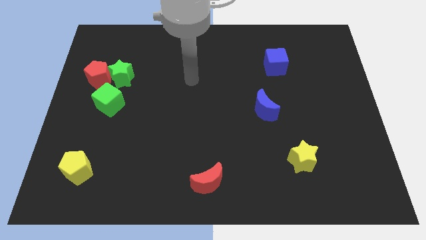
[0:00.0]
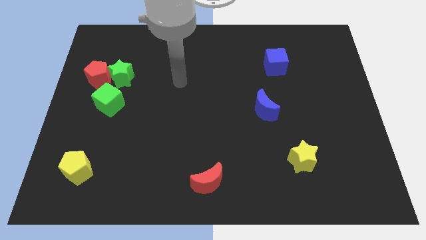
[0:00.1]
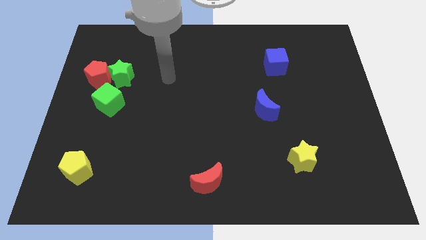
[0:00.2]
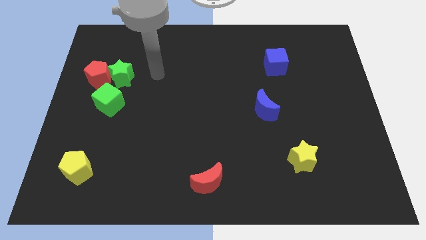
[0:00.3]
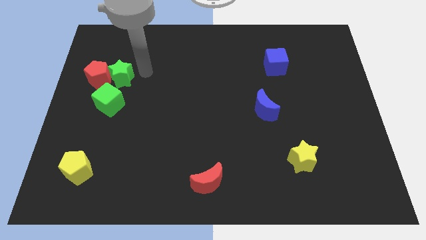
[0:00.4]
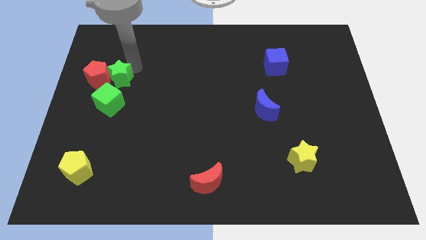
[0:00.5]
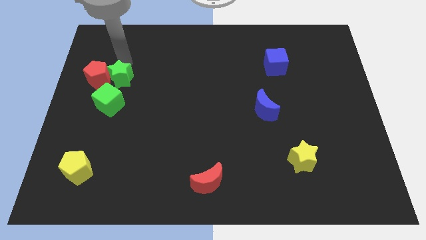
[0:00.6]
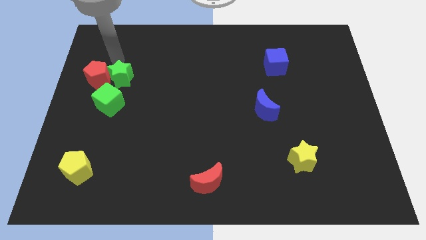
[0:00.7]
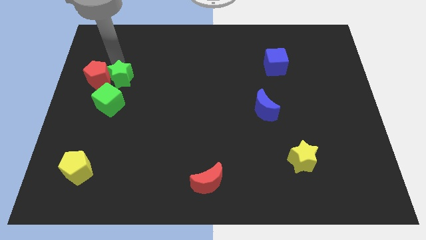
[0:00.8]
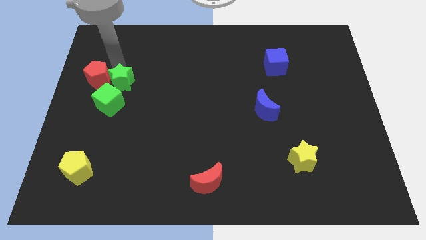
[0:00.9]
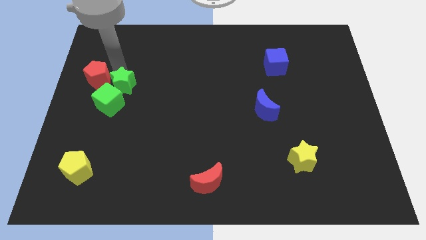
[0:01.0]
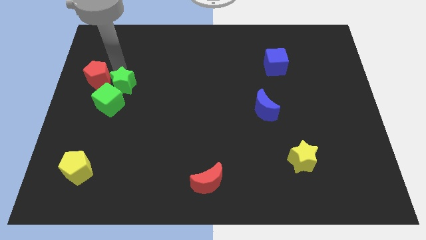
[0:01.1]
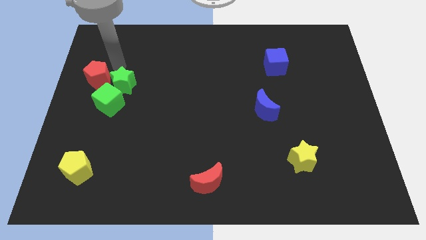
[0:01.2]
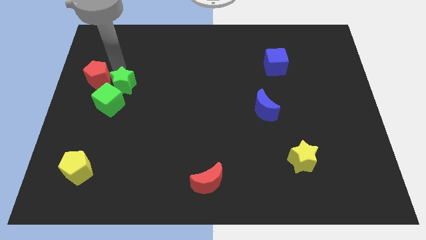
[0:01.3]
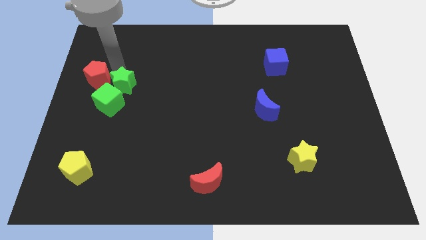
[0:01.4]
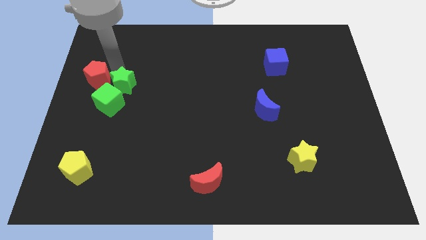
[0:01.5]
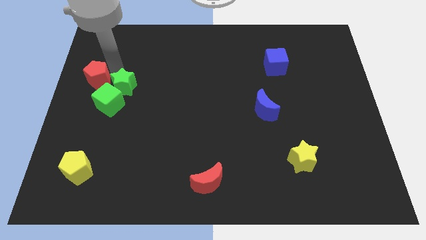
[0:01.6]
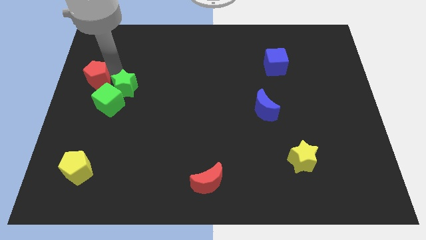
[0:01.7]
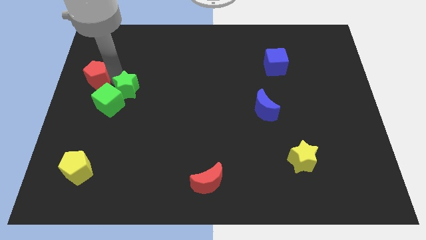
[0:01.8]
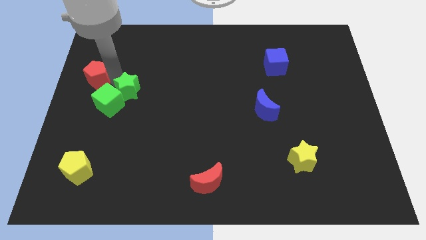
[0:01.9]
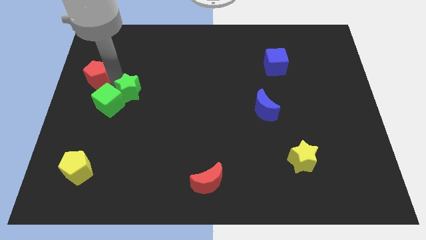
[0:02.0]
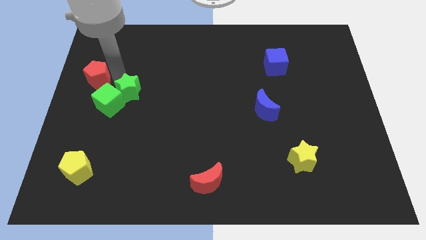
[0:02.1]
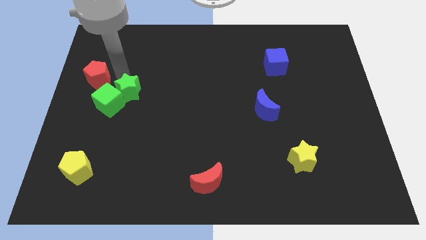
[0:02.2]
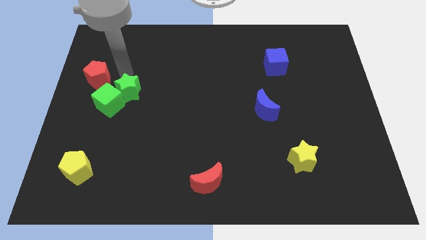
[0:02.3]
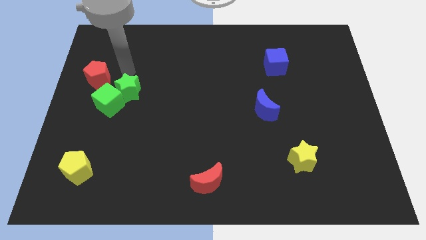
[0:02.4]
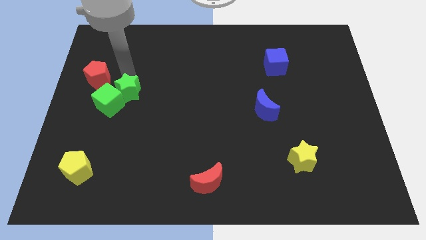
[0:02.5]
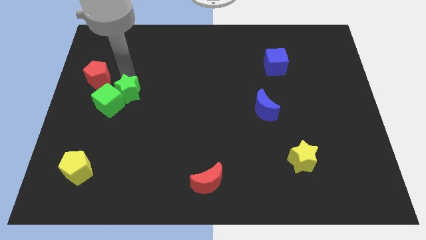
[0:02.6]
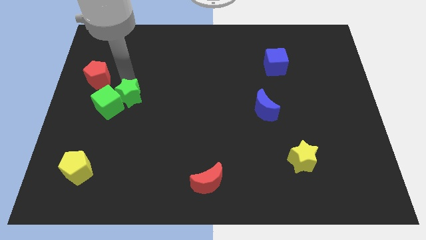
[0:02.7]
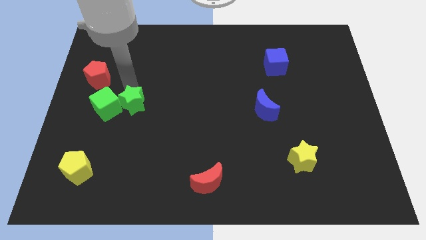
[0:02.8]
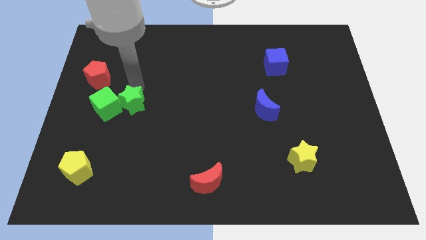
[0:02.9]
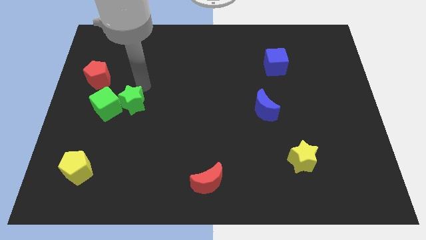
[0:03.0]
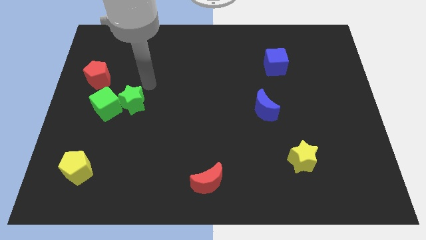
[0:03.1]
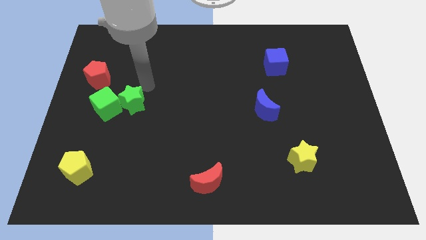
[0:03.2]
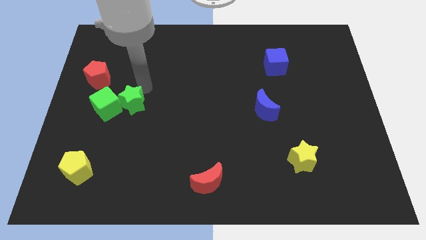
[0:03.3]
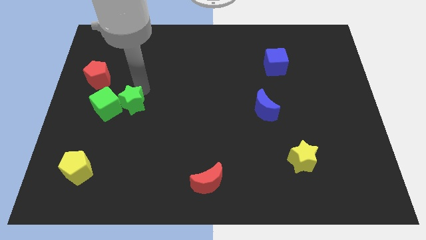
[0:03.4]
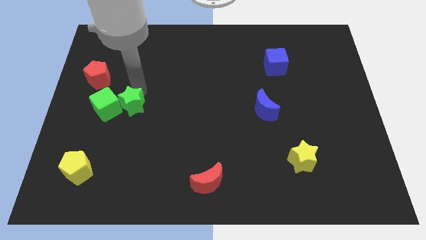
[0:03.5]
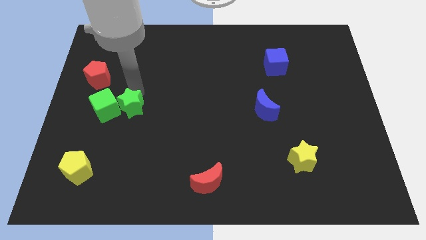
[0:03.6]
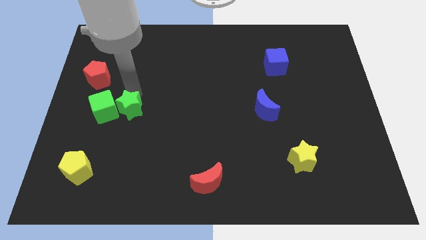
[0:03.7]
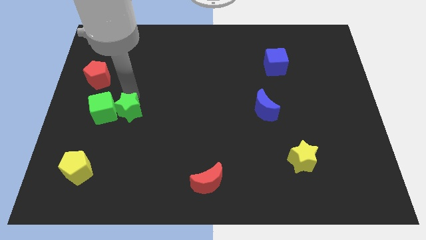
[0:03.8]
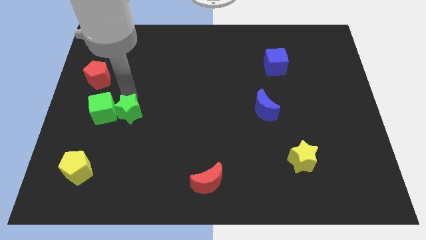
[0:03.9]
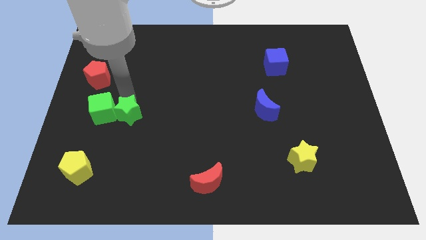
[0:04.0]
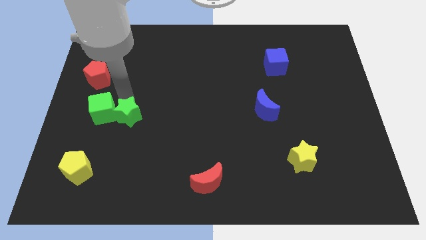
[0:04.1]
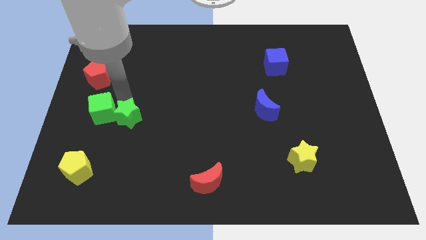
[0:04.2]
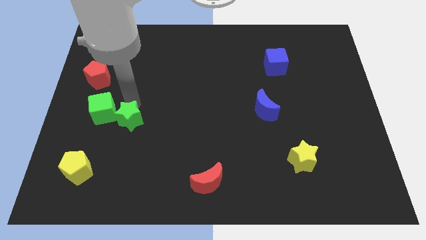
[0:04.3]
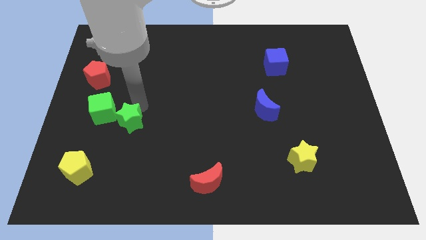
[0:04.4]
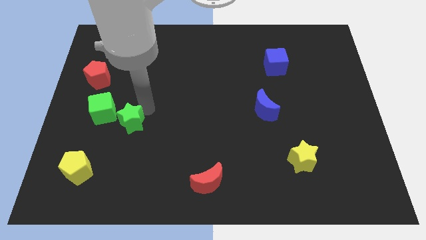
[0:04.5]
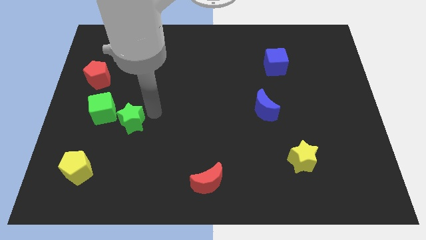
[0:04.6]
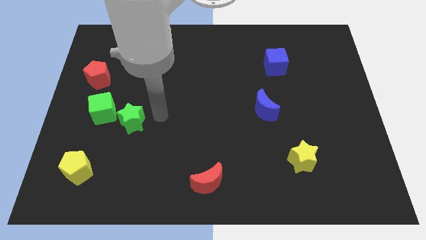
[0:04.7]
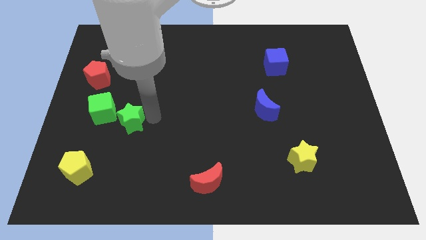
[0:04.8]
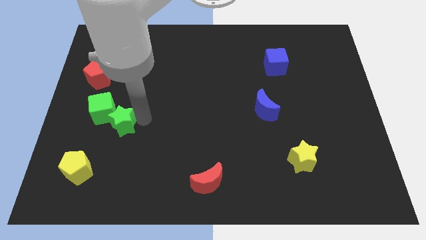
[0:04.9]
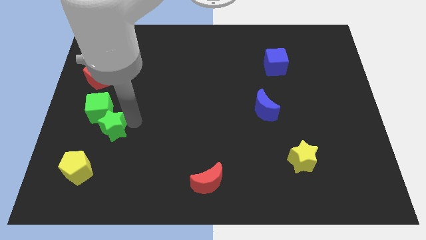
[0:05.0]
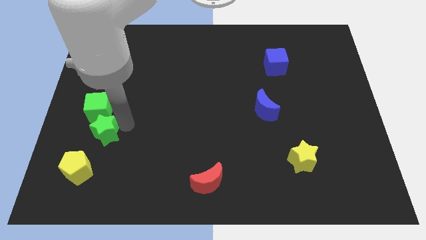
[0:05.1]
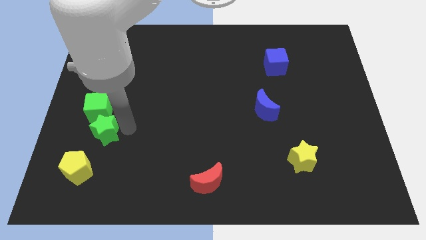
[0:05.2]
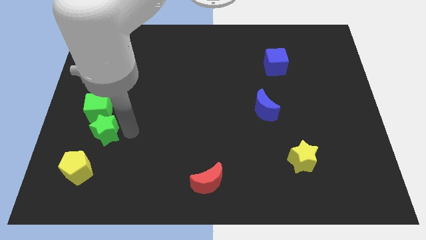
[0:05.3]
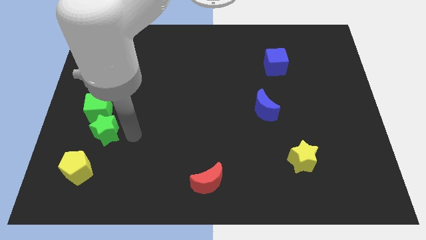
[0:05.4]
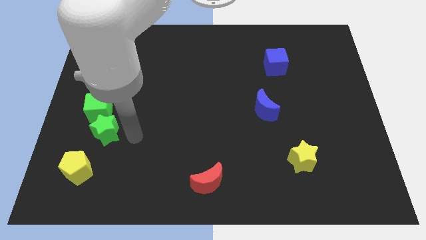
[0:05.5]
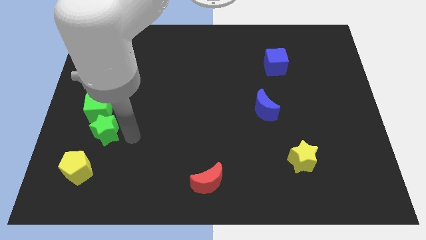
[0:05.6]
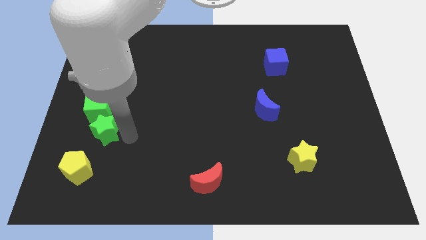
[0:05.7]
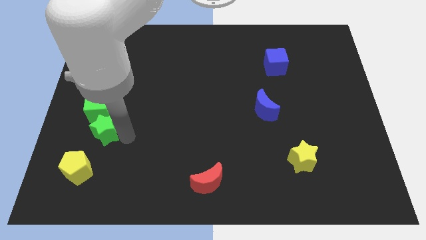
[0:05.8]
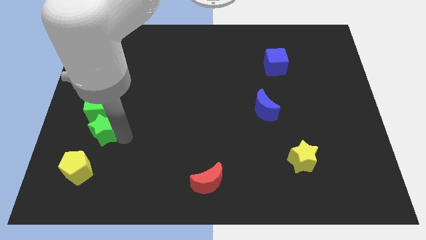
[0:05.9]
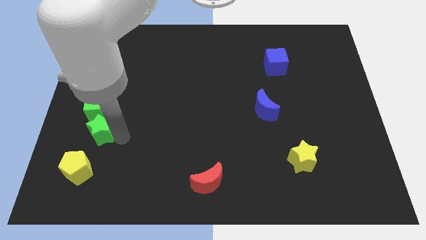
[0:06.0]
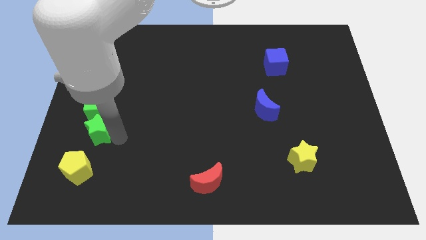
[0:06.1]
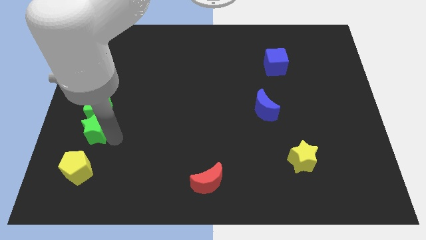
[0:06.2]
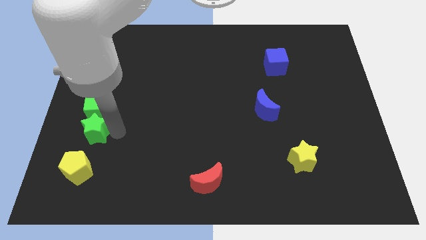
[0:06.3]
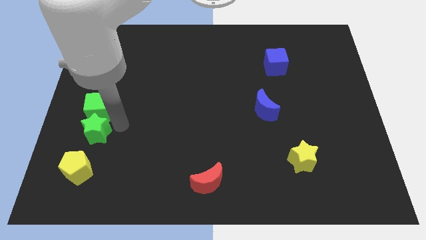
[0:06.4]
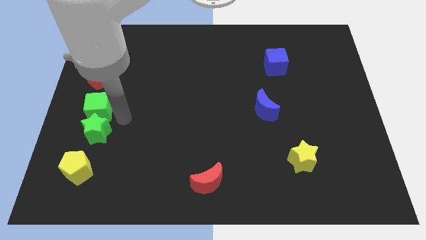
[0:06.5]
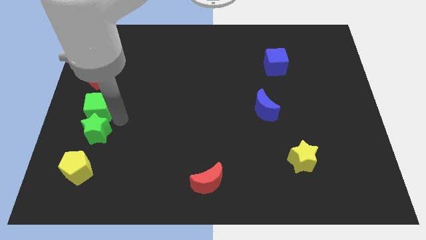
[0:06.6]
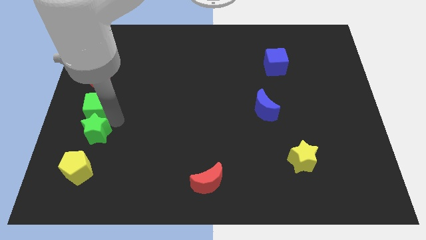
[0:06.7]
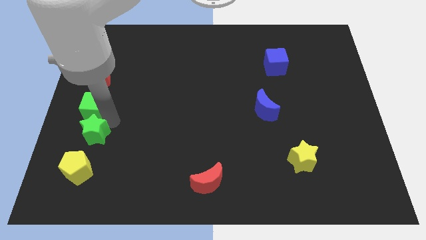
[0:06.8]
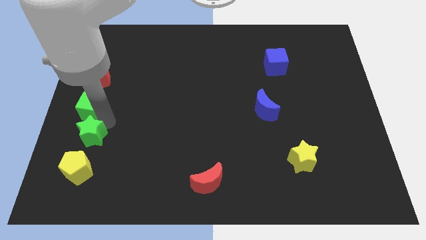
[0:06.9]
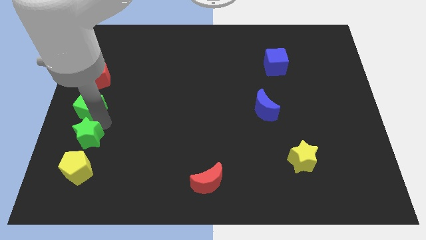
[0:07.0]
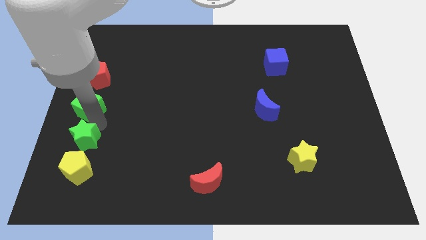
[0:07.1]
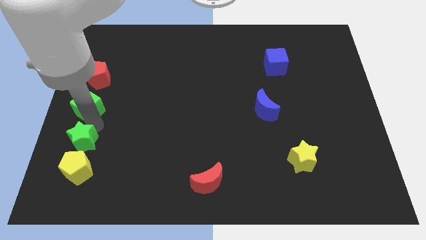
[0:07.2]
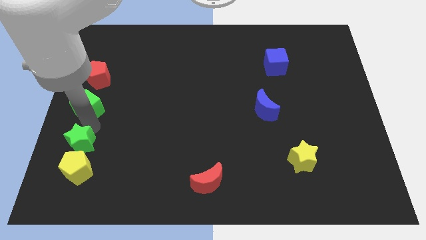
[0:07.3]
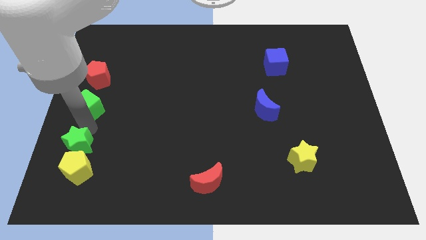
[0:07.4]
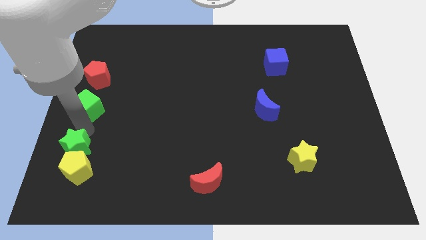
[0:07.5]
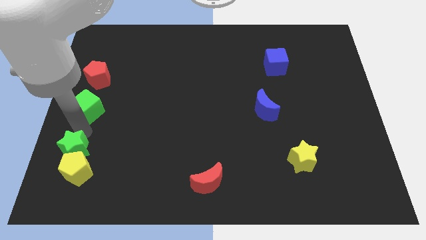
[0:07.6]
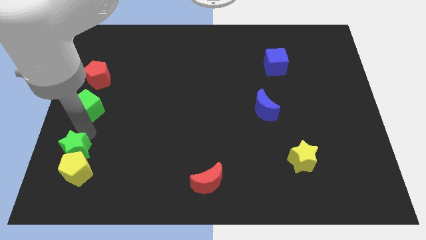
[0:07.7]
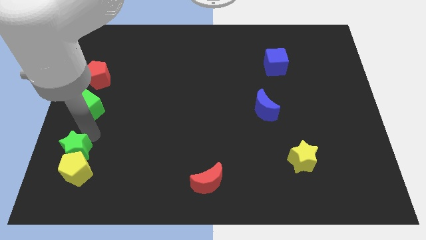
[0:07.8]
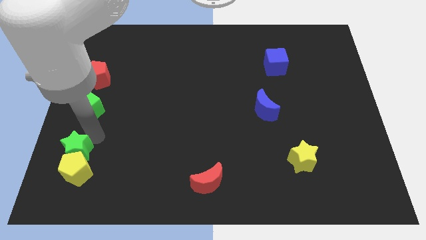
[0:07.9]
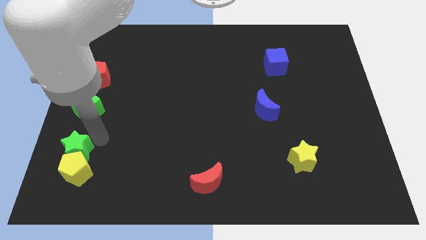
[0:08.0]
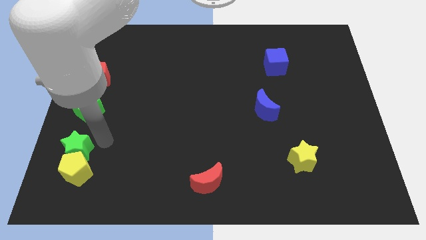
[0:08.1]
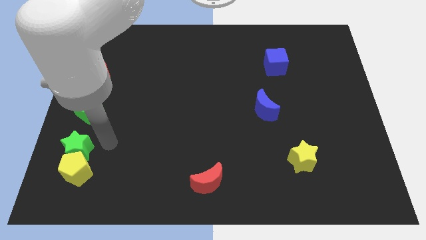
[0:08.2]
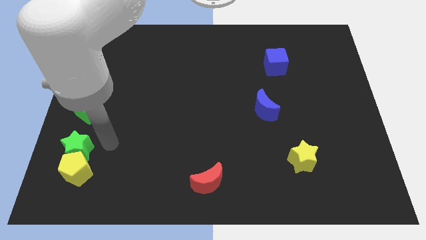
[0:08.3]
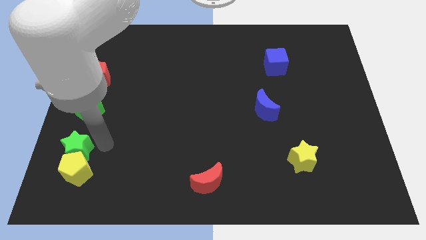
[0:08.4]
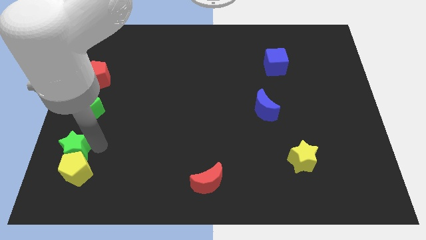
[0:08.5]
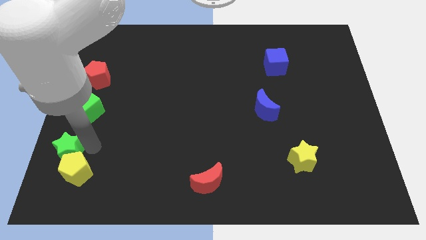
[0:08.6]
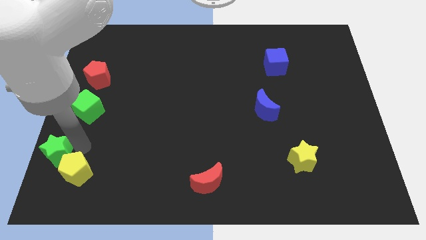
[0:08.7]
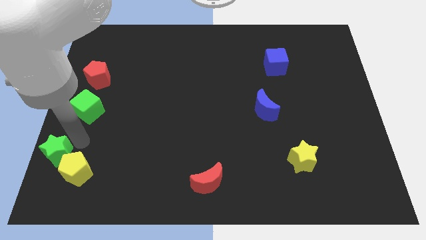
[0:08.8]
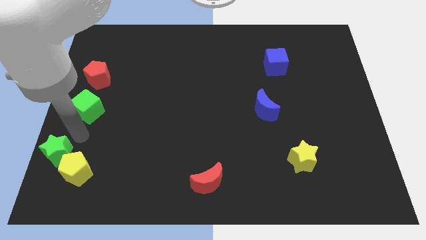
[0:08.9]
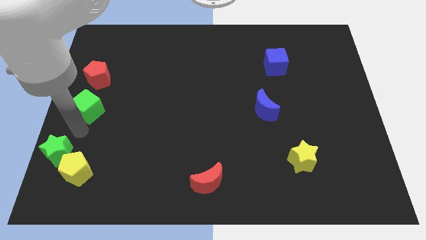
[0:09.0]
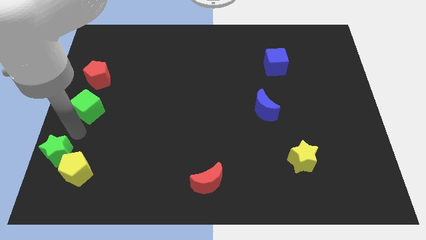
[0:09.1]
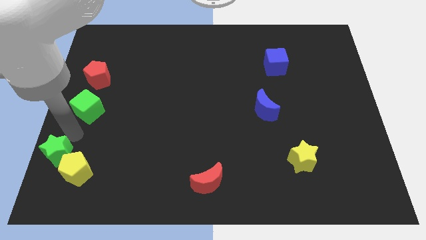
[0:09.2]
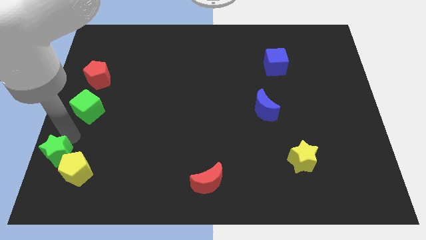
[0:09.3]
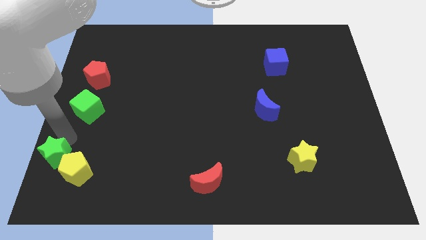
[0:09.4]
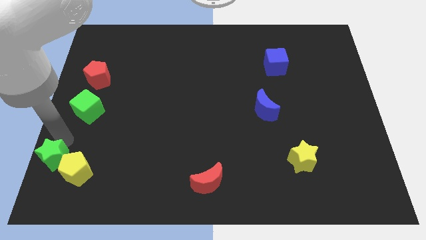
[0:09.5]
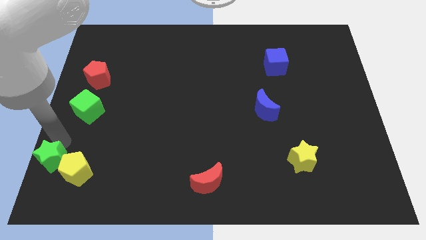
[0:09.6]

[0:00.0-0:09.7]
push the green star to the bottom left of the board
